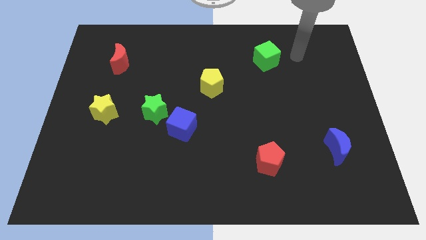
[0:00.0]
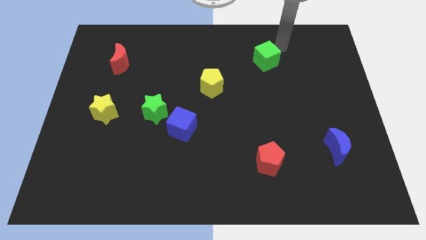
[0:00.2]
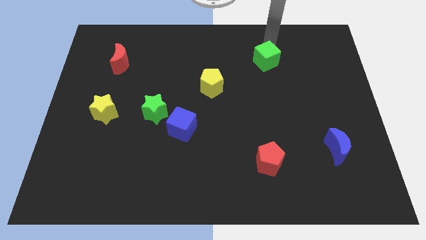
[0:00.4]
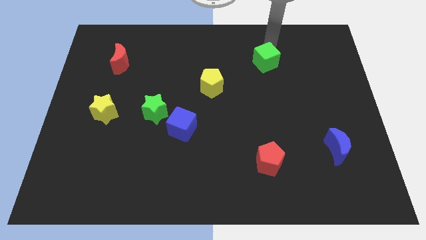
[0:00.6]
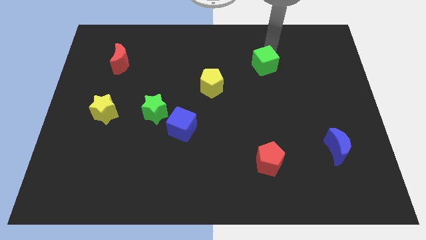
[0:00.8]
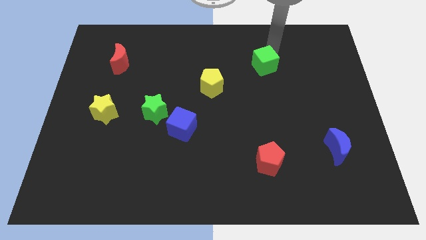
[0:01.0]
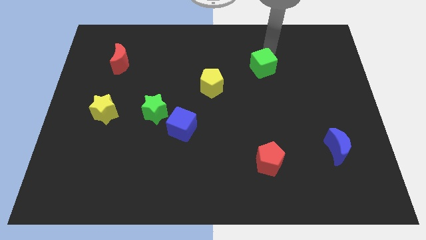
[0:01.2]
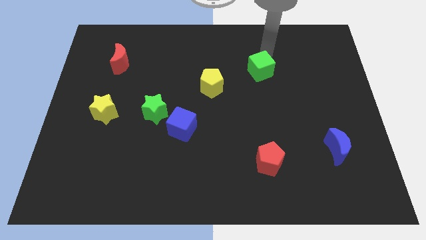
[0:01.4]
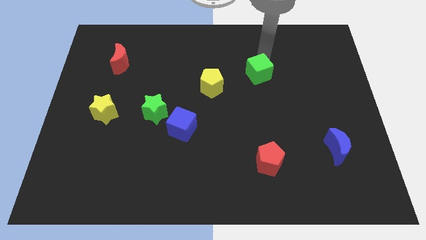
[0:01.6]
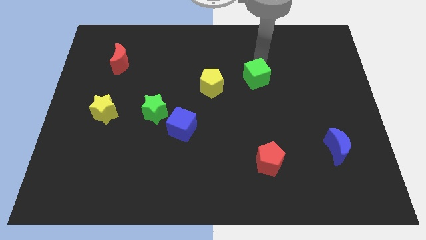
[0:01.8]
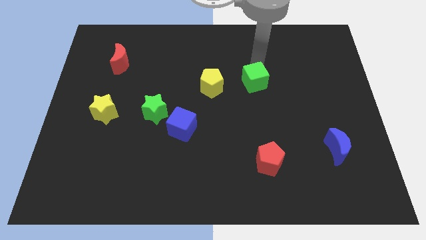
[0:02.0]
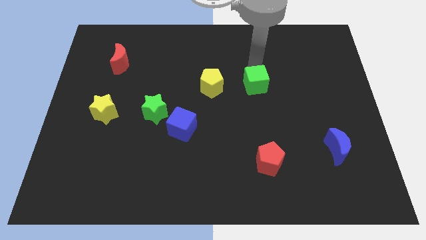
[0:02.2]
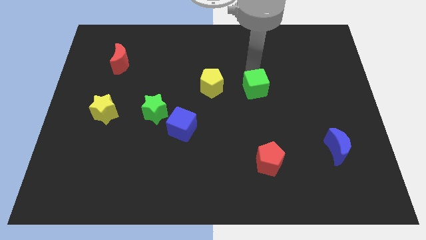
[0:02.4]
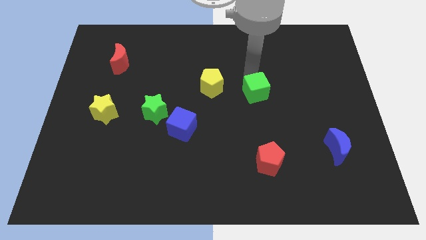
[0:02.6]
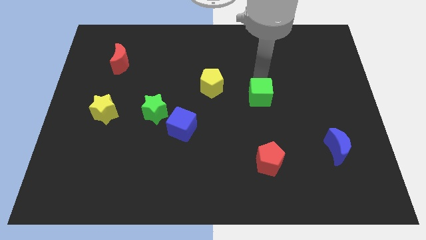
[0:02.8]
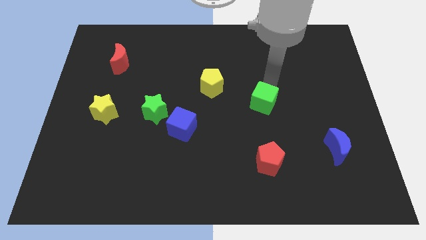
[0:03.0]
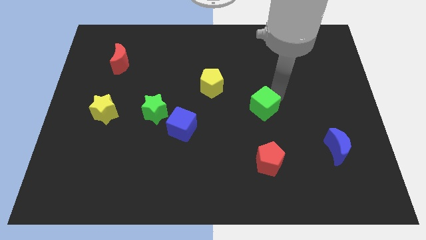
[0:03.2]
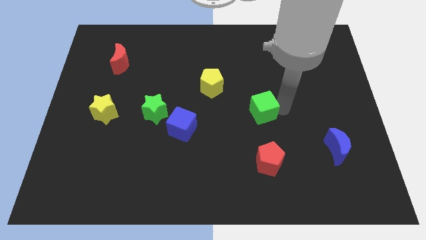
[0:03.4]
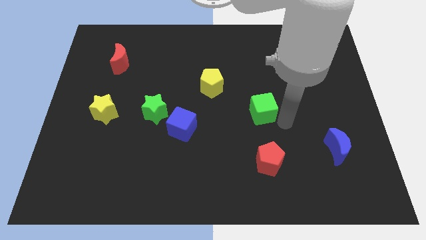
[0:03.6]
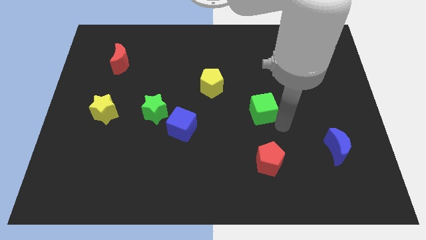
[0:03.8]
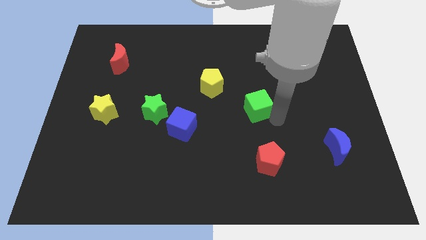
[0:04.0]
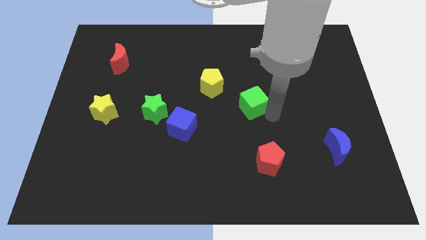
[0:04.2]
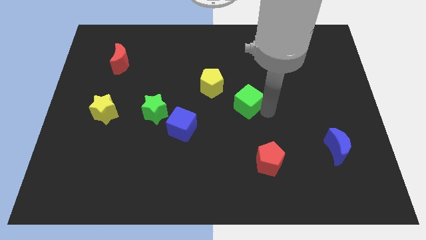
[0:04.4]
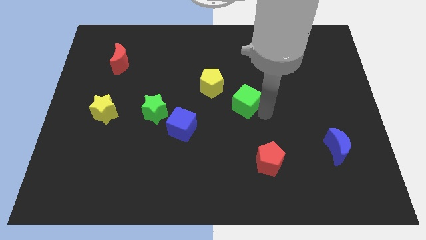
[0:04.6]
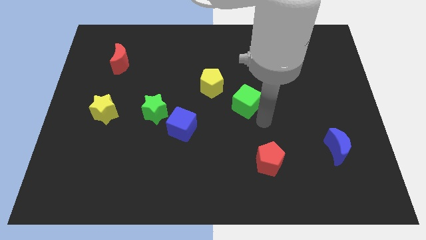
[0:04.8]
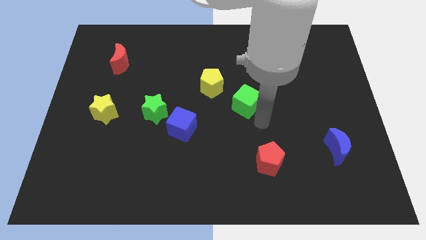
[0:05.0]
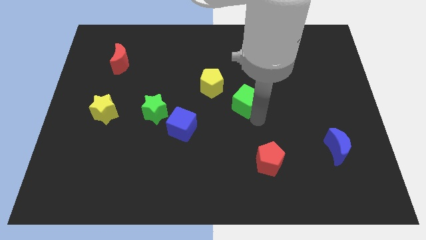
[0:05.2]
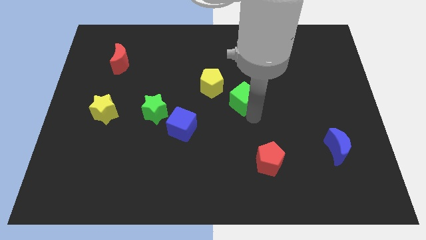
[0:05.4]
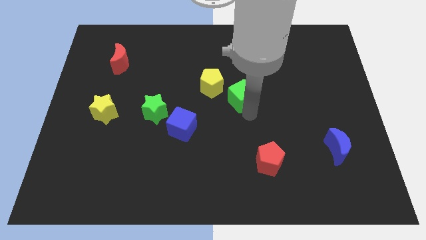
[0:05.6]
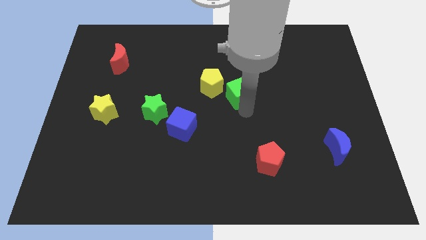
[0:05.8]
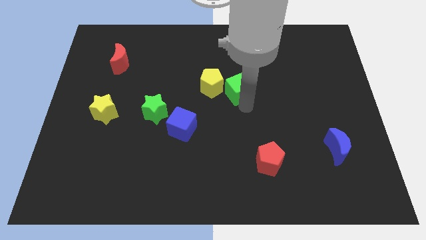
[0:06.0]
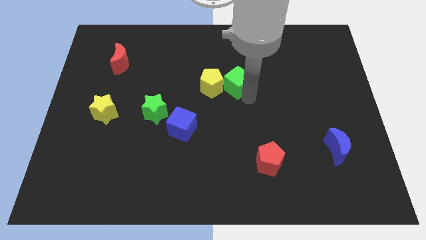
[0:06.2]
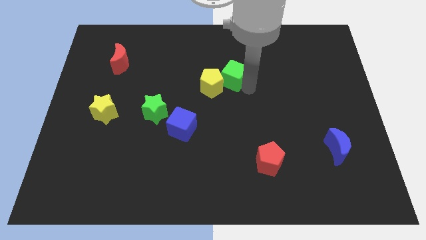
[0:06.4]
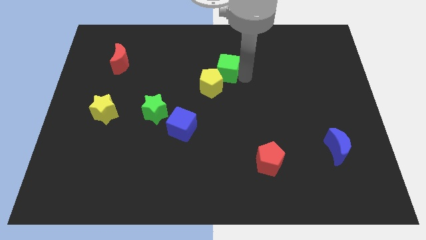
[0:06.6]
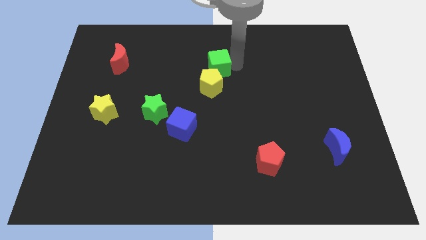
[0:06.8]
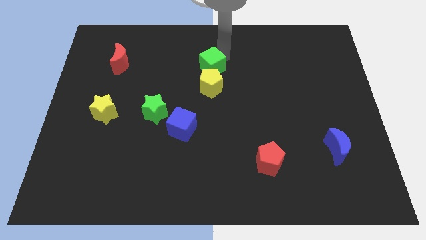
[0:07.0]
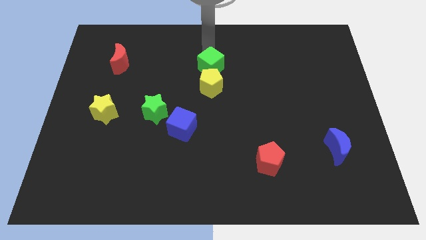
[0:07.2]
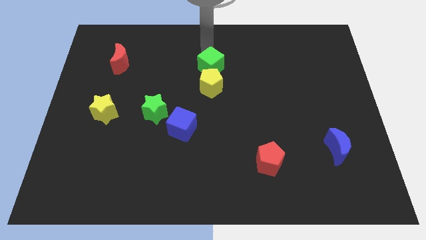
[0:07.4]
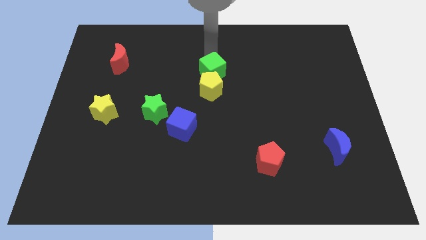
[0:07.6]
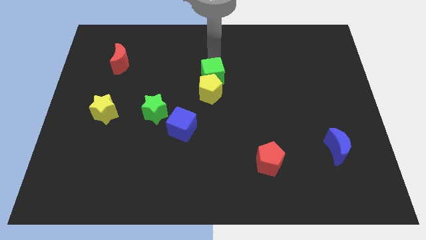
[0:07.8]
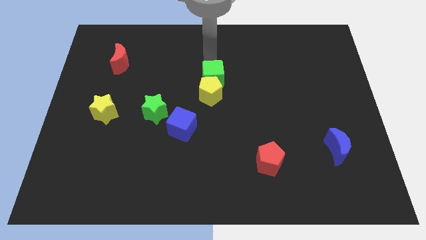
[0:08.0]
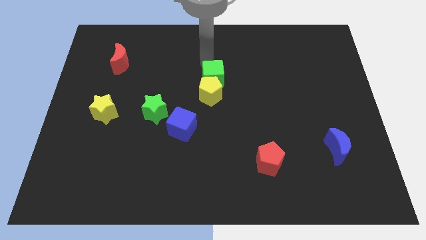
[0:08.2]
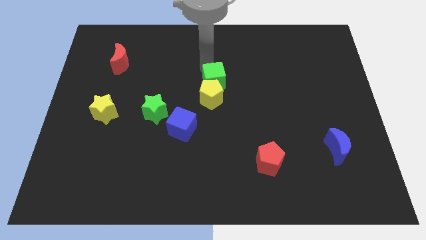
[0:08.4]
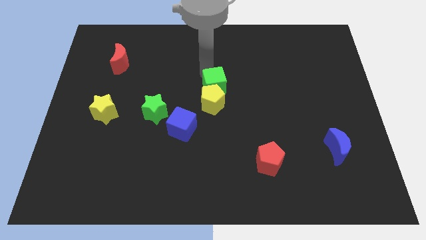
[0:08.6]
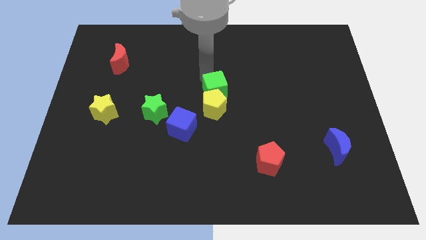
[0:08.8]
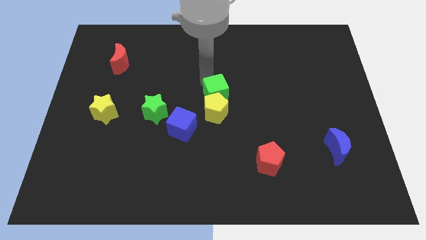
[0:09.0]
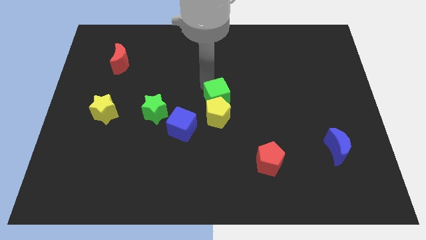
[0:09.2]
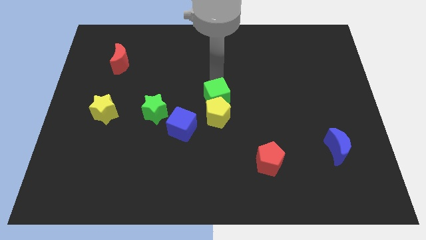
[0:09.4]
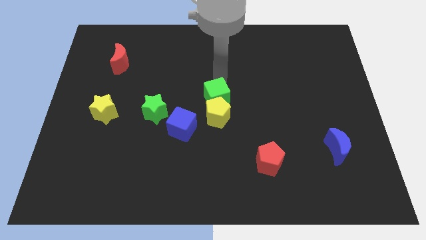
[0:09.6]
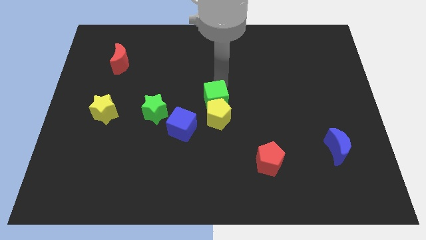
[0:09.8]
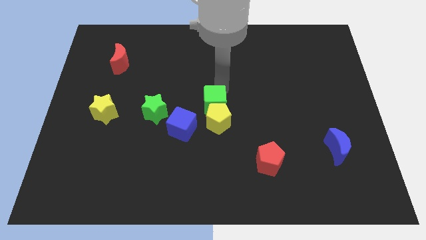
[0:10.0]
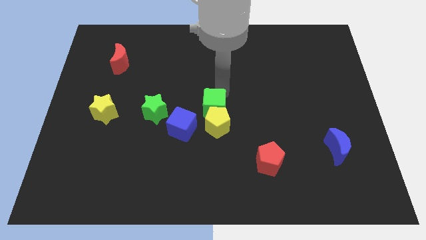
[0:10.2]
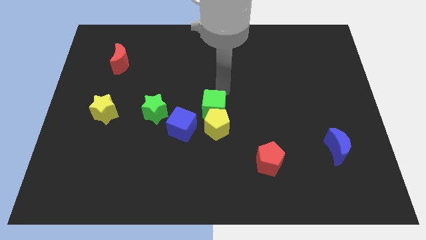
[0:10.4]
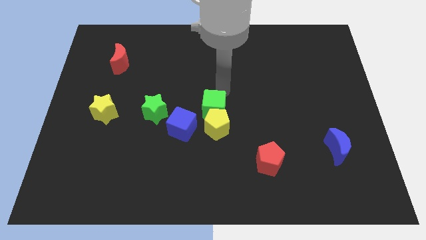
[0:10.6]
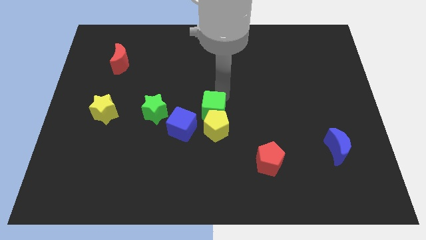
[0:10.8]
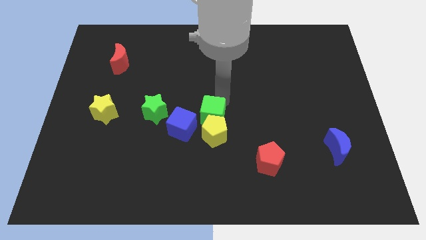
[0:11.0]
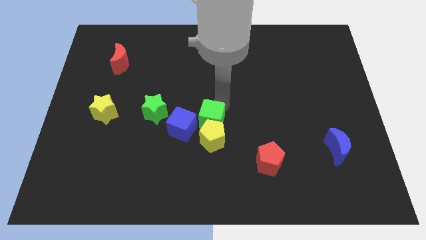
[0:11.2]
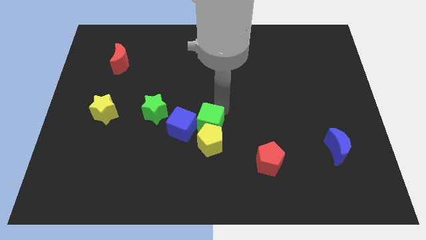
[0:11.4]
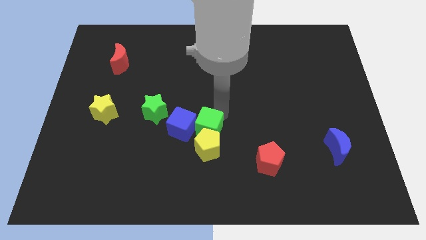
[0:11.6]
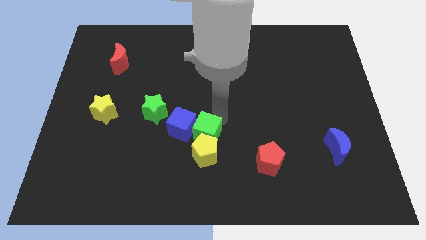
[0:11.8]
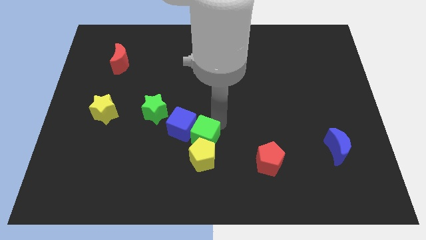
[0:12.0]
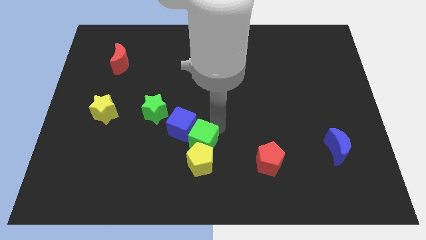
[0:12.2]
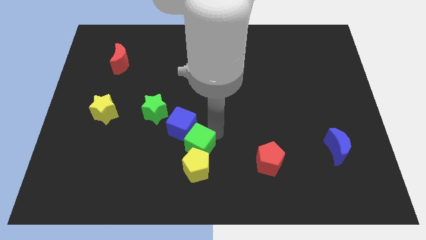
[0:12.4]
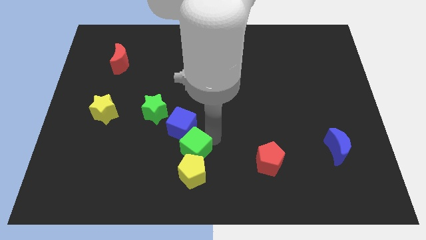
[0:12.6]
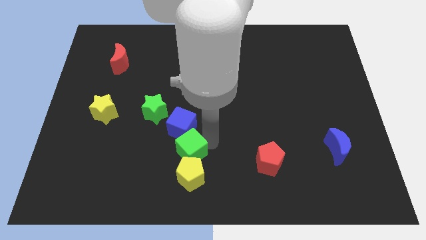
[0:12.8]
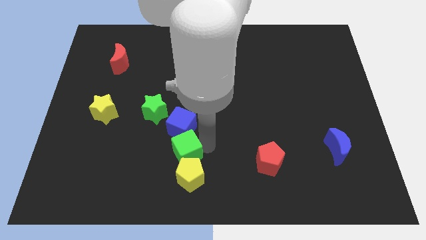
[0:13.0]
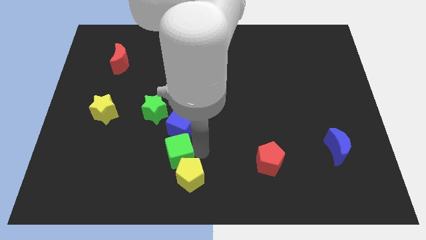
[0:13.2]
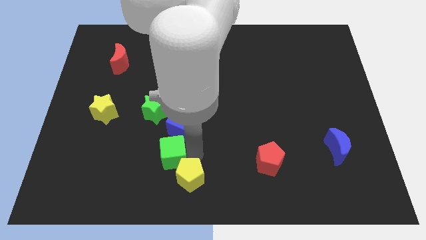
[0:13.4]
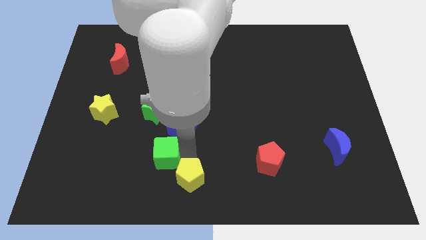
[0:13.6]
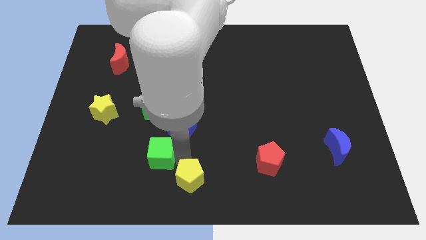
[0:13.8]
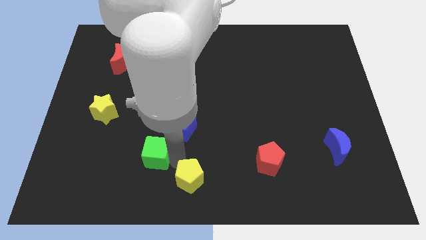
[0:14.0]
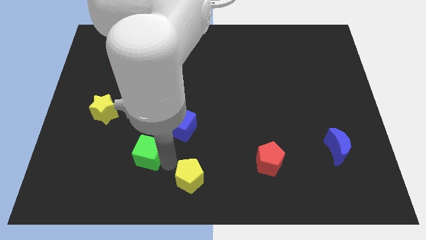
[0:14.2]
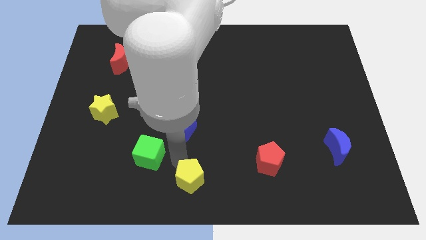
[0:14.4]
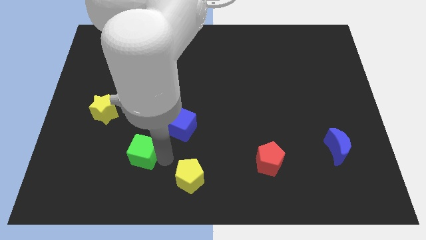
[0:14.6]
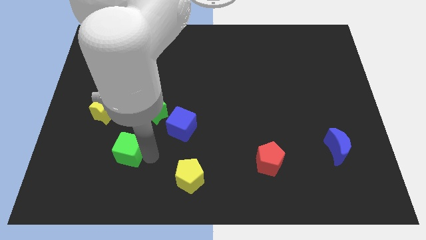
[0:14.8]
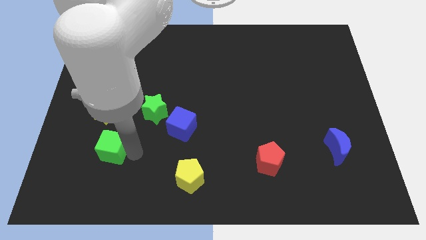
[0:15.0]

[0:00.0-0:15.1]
slide the green cube below the yellow star
